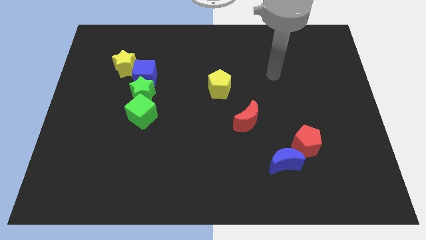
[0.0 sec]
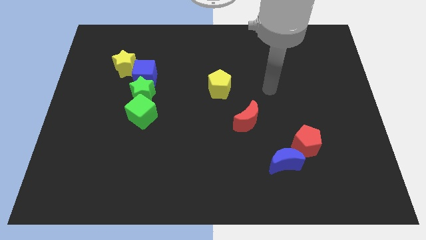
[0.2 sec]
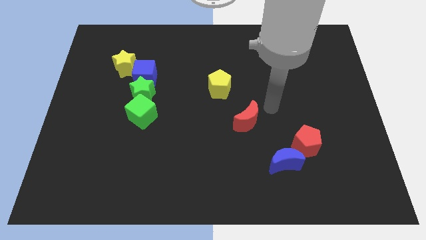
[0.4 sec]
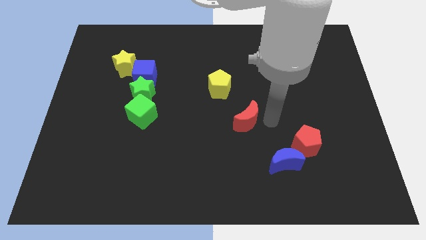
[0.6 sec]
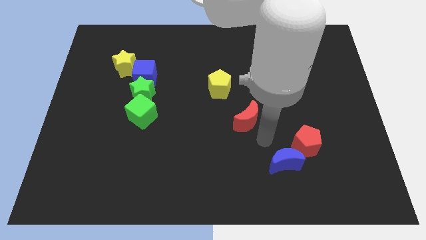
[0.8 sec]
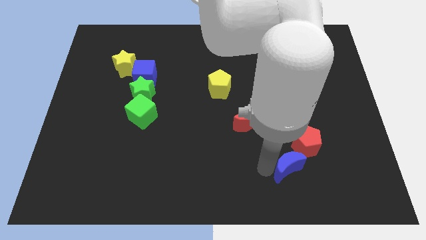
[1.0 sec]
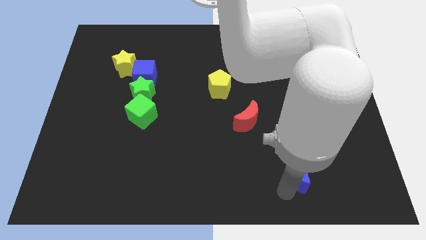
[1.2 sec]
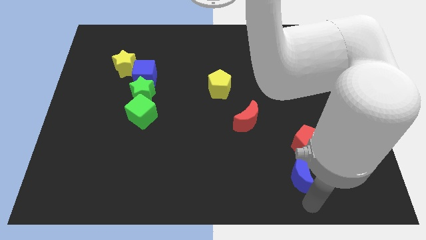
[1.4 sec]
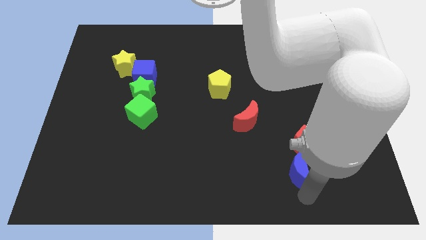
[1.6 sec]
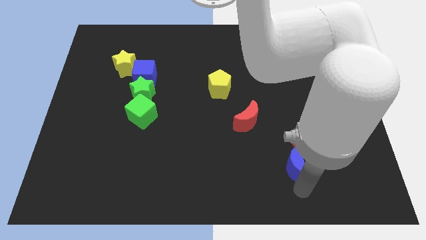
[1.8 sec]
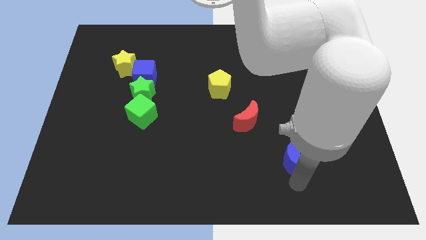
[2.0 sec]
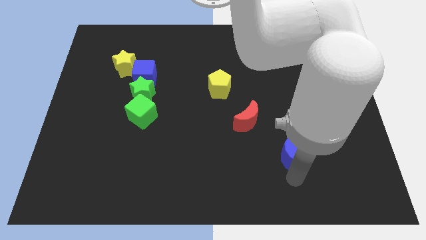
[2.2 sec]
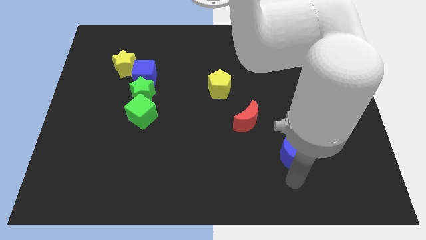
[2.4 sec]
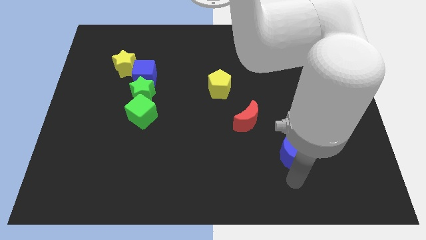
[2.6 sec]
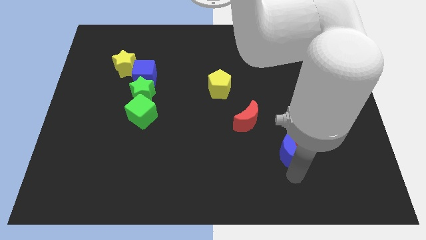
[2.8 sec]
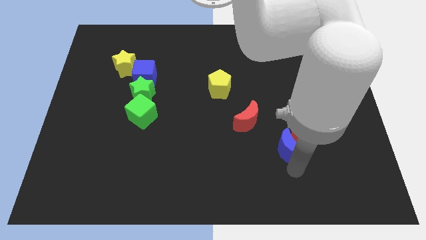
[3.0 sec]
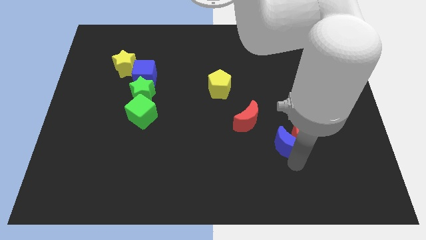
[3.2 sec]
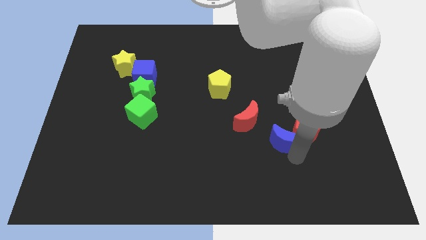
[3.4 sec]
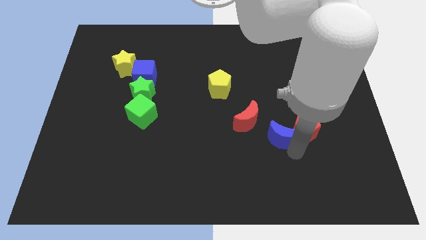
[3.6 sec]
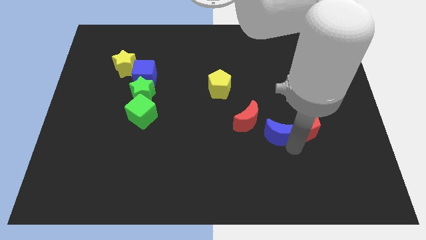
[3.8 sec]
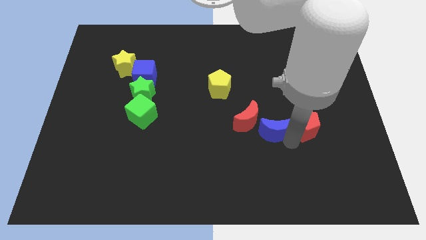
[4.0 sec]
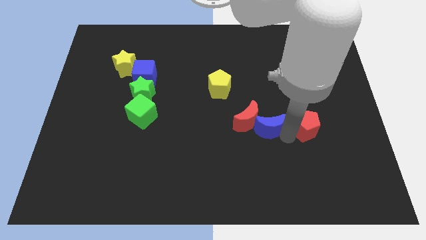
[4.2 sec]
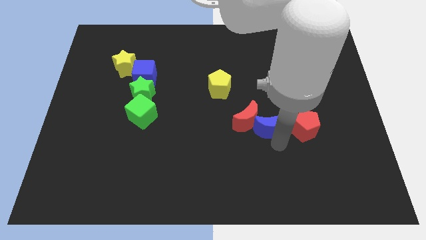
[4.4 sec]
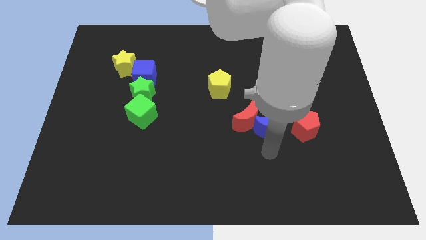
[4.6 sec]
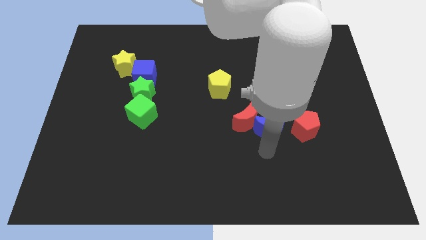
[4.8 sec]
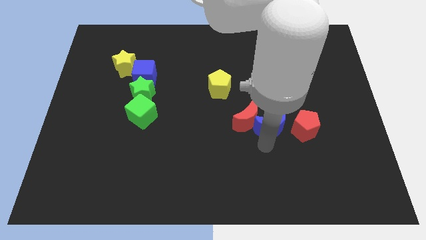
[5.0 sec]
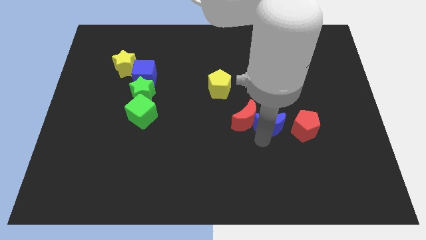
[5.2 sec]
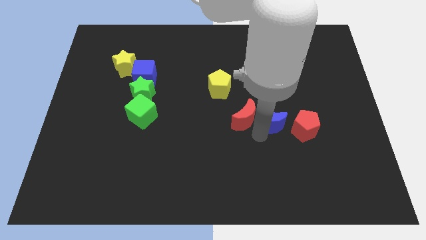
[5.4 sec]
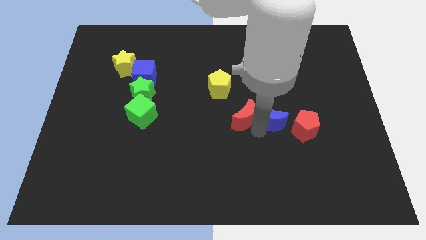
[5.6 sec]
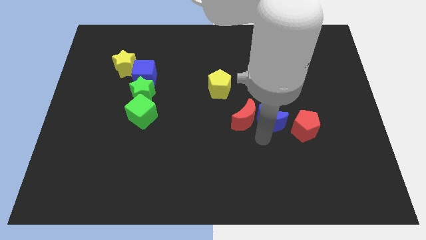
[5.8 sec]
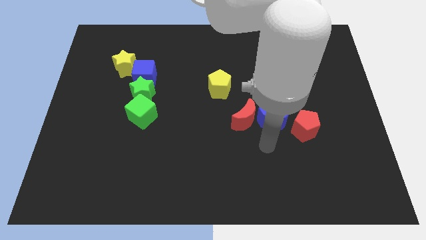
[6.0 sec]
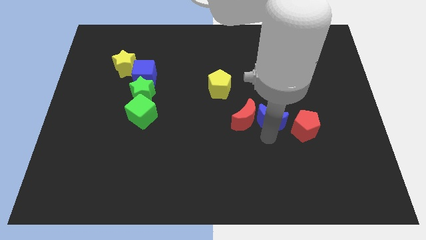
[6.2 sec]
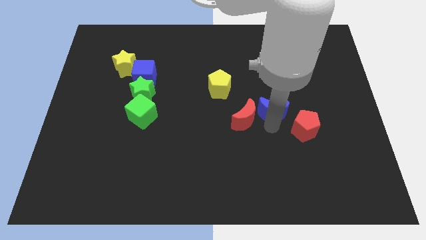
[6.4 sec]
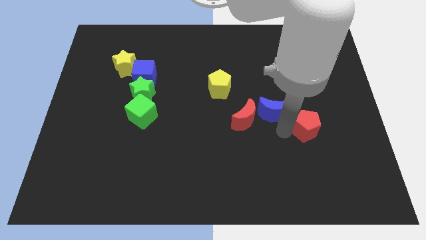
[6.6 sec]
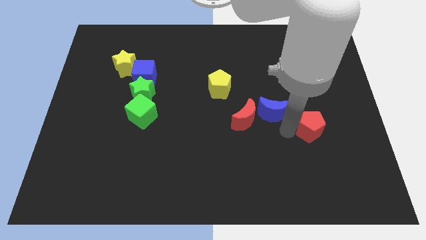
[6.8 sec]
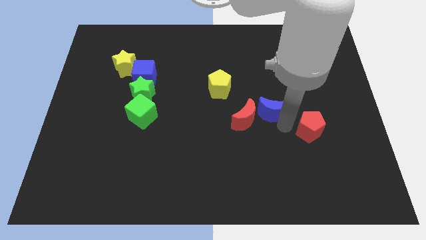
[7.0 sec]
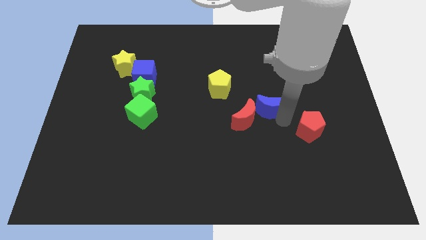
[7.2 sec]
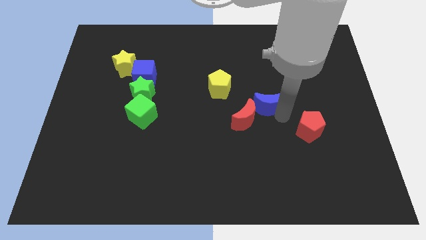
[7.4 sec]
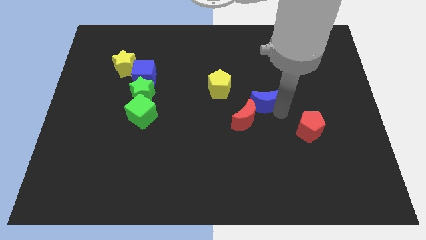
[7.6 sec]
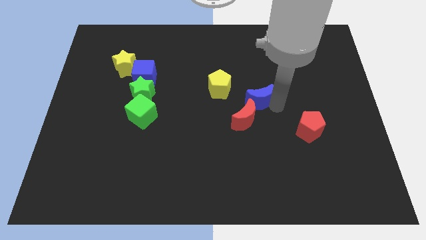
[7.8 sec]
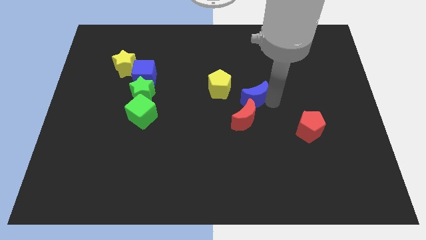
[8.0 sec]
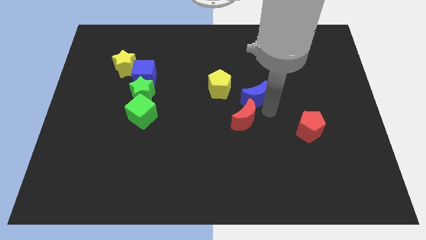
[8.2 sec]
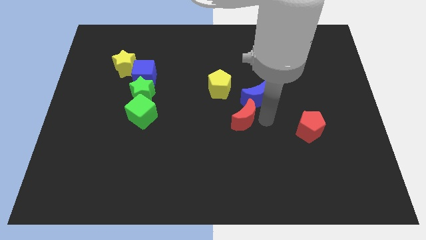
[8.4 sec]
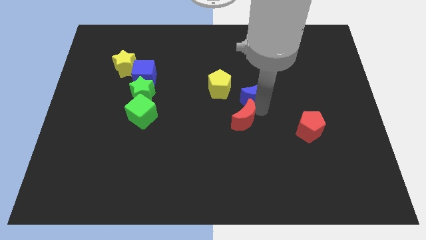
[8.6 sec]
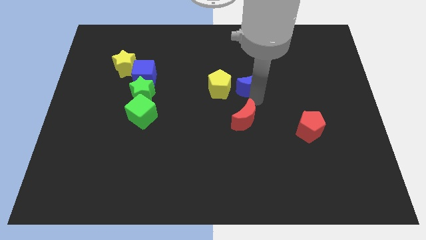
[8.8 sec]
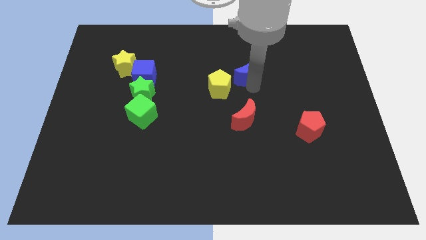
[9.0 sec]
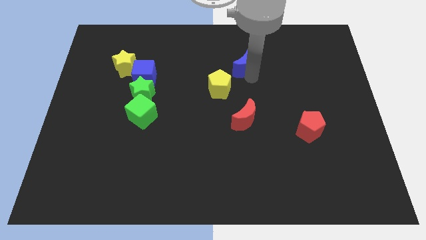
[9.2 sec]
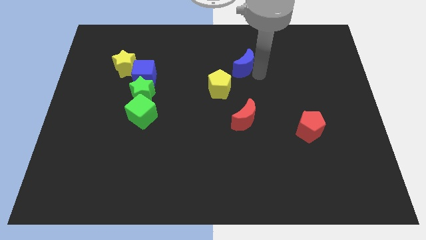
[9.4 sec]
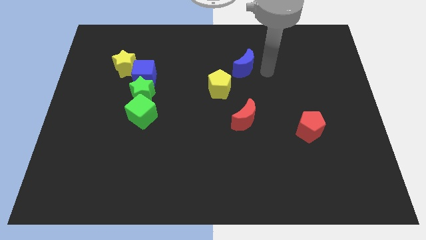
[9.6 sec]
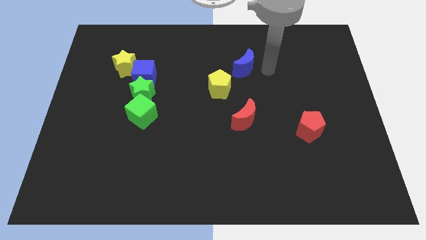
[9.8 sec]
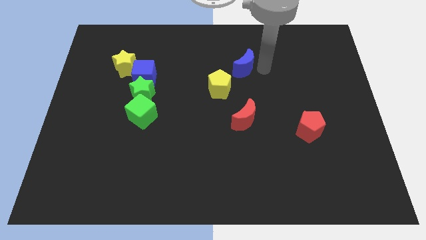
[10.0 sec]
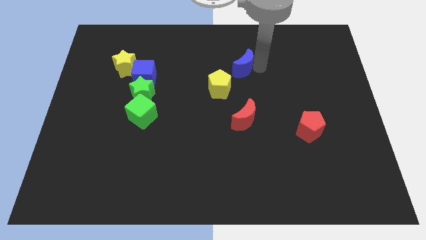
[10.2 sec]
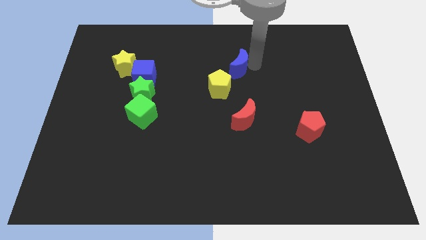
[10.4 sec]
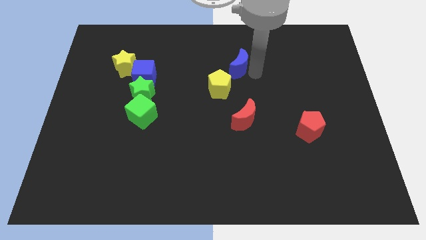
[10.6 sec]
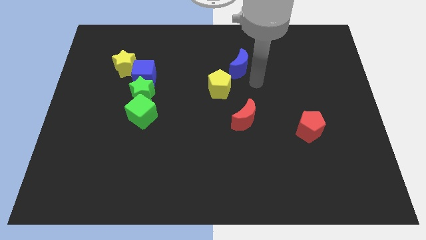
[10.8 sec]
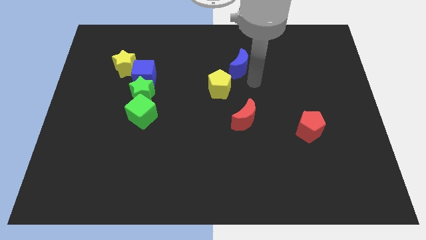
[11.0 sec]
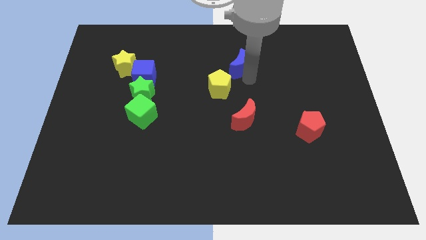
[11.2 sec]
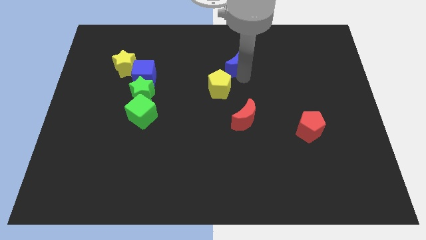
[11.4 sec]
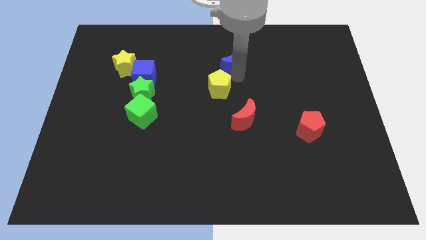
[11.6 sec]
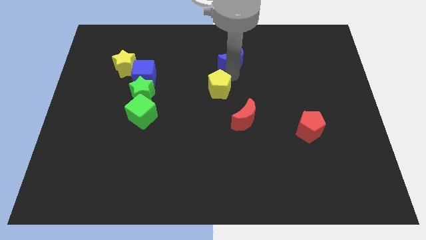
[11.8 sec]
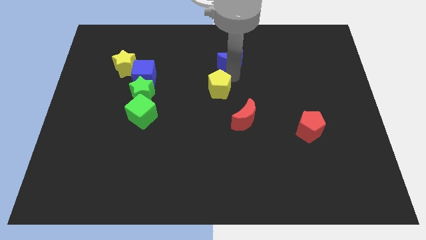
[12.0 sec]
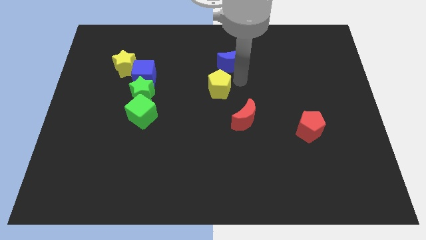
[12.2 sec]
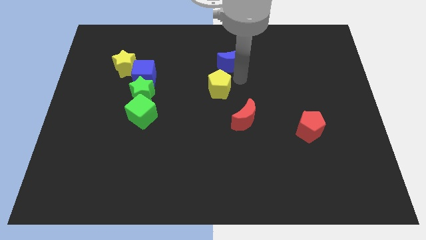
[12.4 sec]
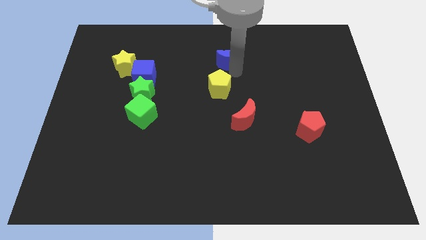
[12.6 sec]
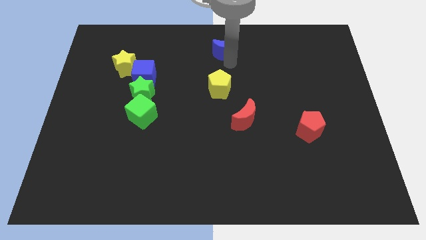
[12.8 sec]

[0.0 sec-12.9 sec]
push the blue moon to the towards your base

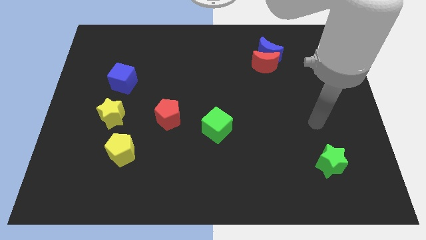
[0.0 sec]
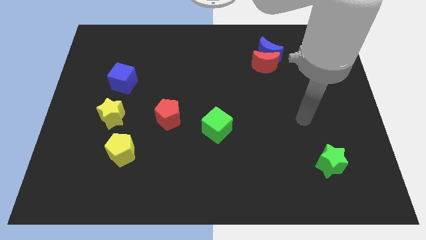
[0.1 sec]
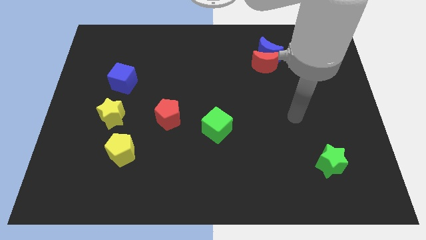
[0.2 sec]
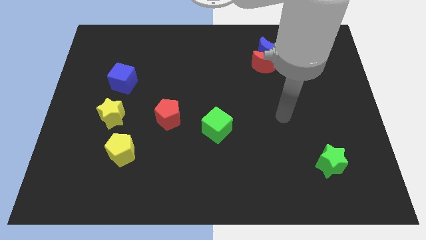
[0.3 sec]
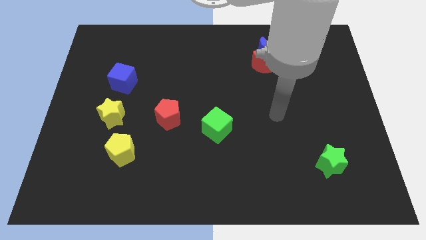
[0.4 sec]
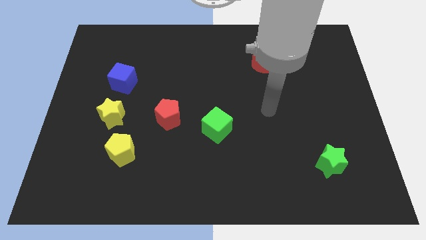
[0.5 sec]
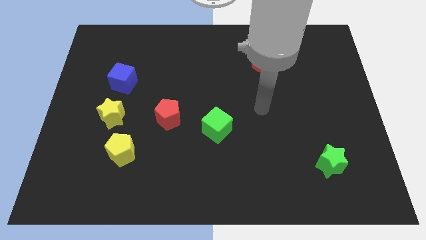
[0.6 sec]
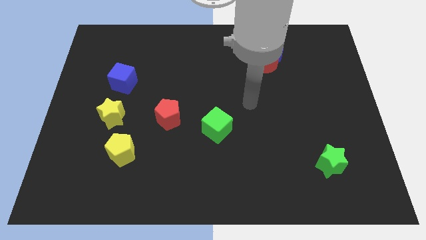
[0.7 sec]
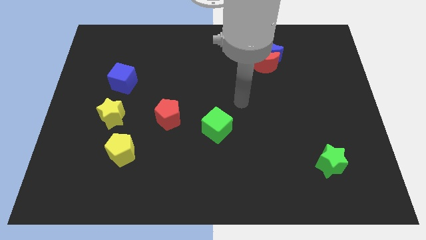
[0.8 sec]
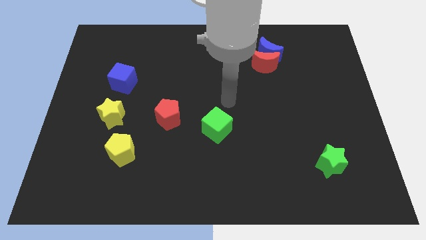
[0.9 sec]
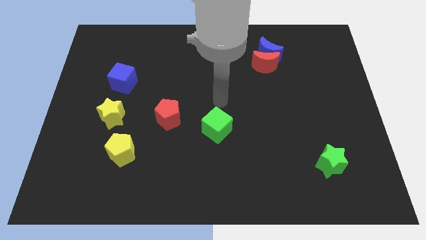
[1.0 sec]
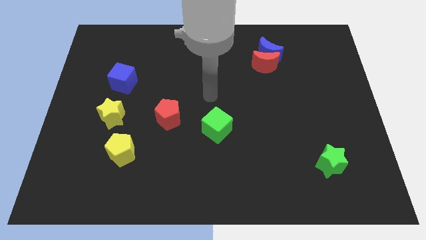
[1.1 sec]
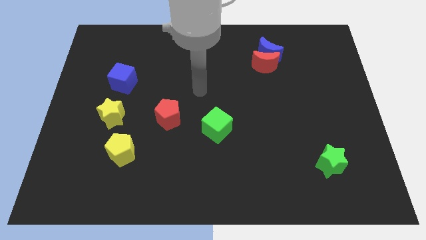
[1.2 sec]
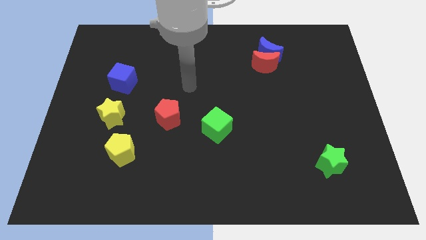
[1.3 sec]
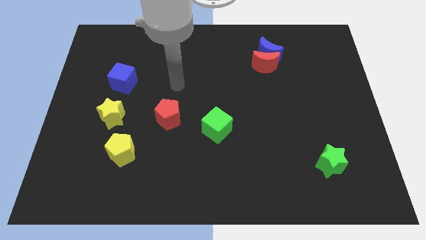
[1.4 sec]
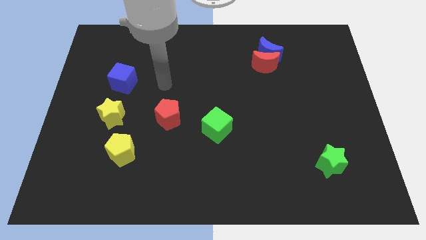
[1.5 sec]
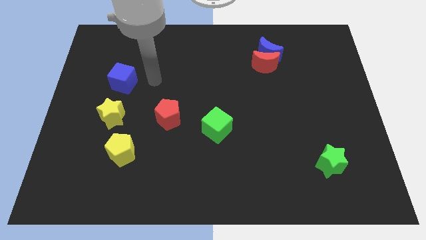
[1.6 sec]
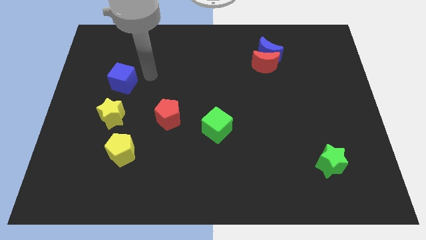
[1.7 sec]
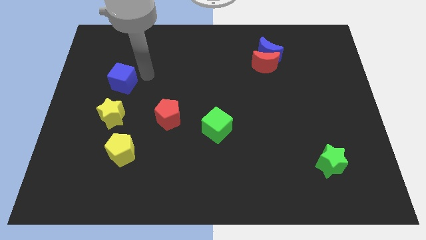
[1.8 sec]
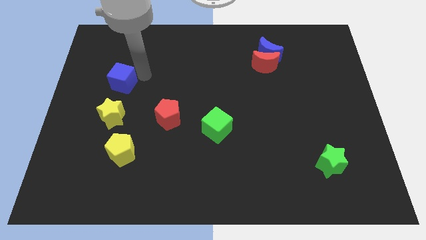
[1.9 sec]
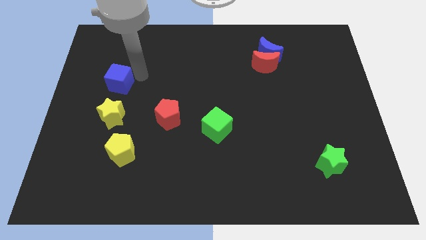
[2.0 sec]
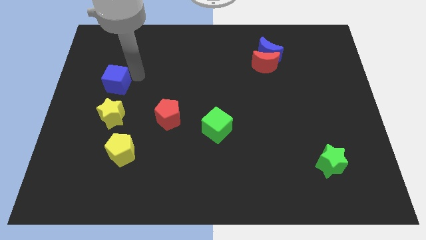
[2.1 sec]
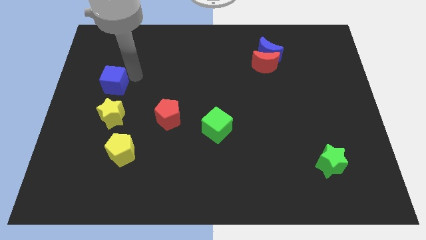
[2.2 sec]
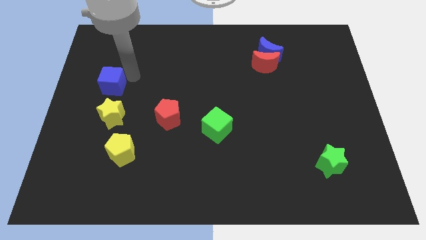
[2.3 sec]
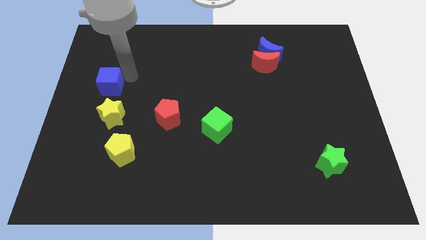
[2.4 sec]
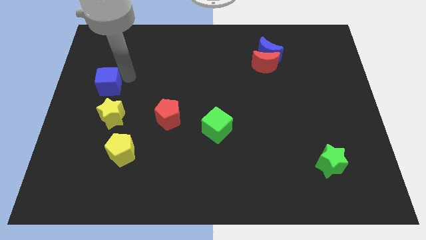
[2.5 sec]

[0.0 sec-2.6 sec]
slide the blue cube to the left side
